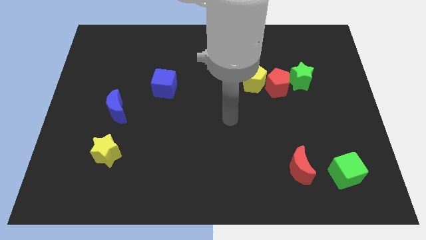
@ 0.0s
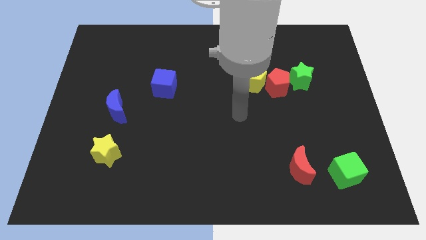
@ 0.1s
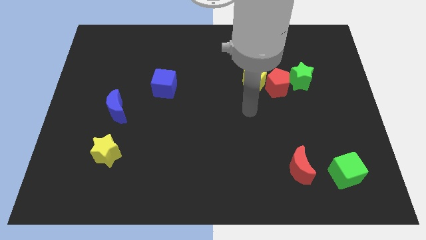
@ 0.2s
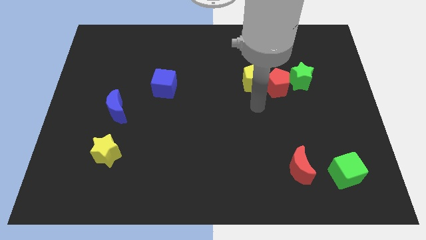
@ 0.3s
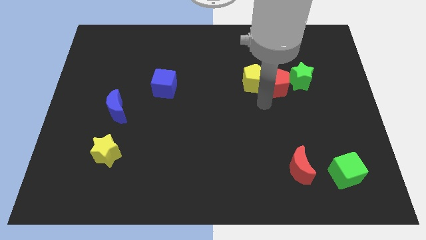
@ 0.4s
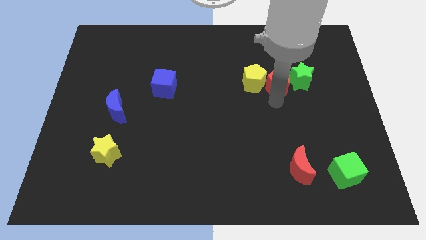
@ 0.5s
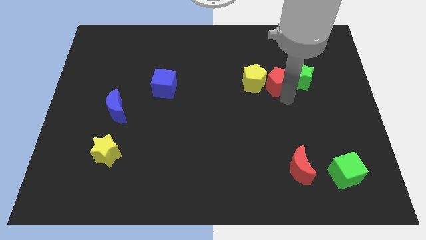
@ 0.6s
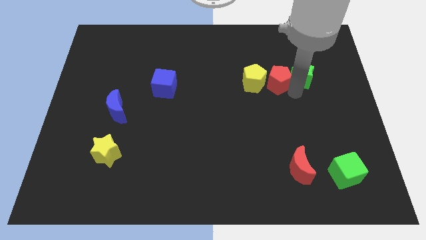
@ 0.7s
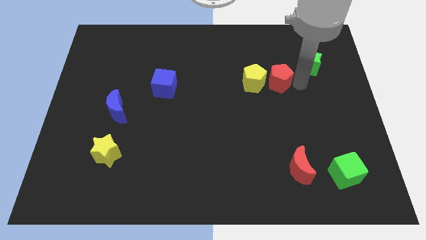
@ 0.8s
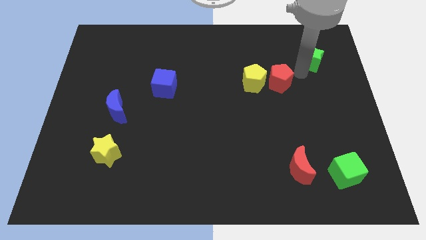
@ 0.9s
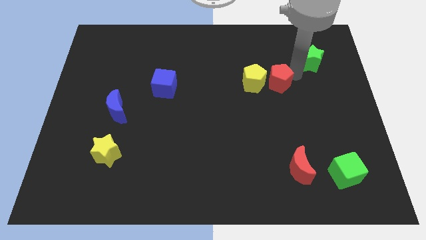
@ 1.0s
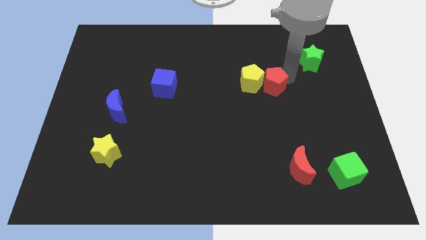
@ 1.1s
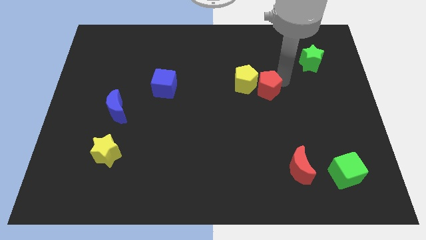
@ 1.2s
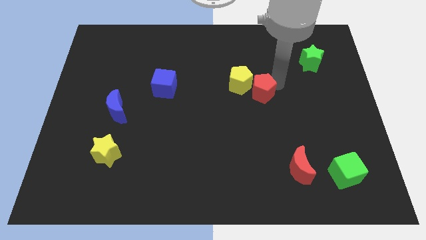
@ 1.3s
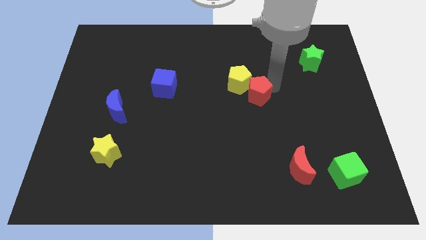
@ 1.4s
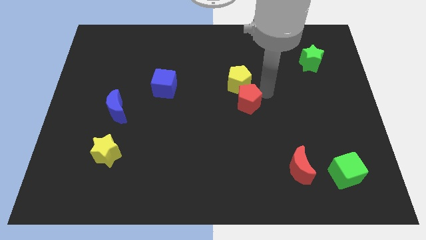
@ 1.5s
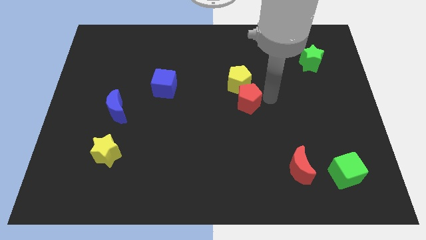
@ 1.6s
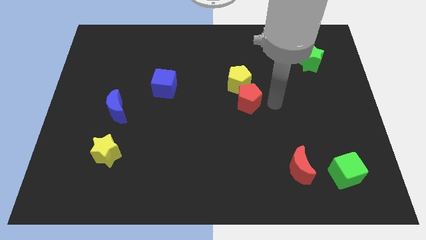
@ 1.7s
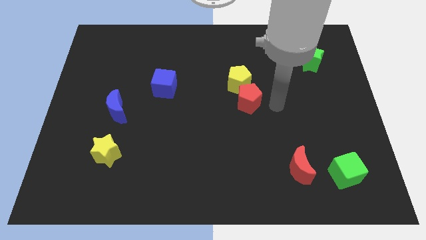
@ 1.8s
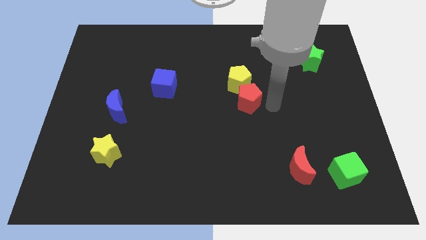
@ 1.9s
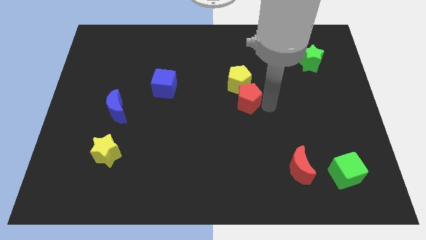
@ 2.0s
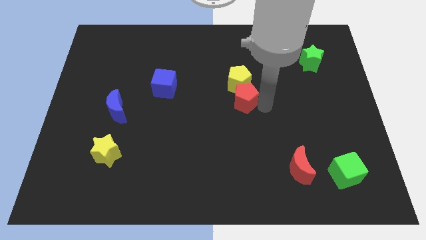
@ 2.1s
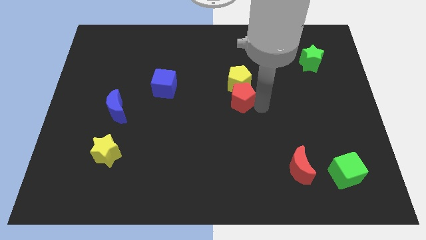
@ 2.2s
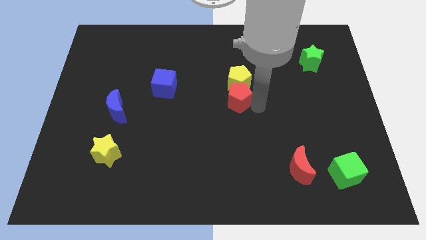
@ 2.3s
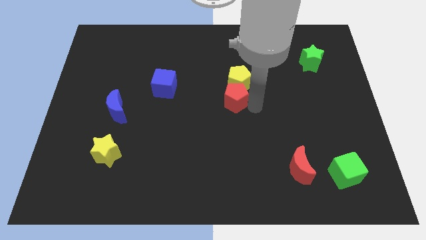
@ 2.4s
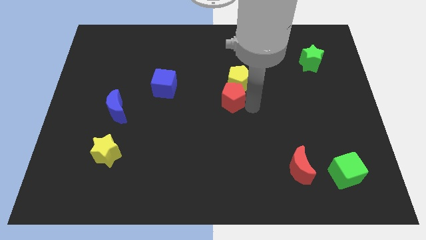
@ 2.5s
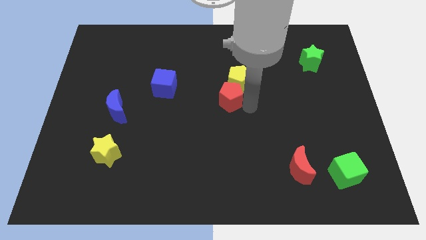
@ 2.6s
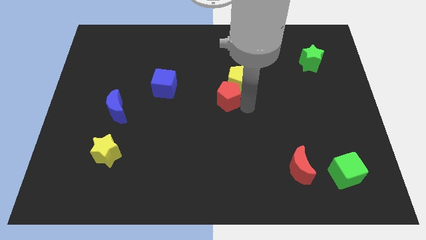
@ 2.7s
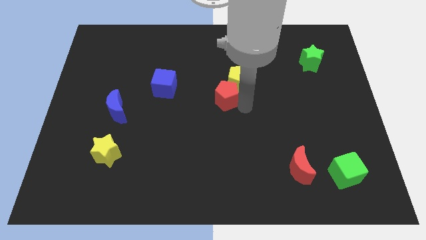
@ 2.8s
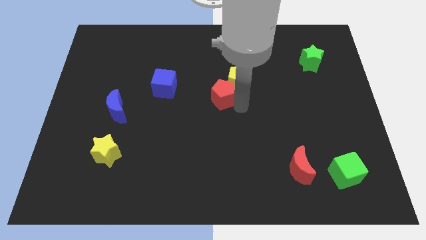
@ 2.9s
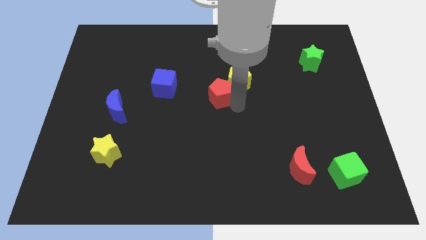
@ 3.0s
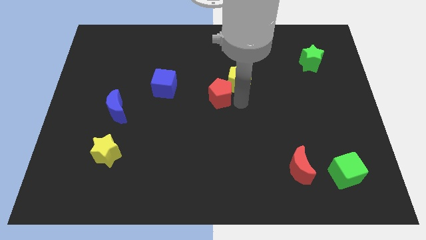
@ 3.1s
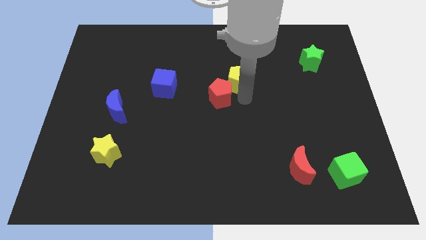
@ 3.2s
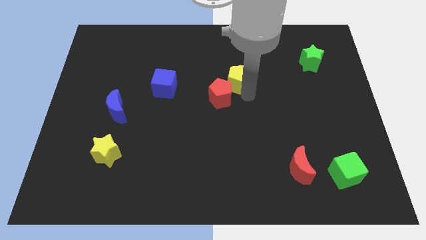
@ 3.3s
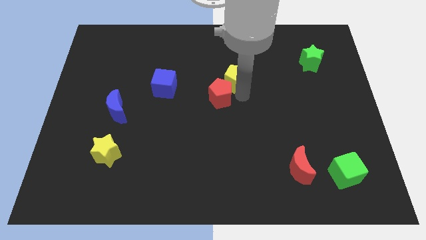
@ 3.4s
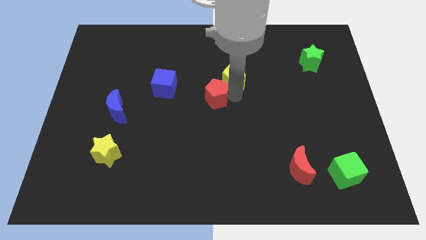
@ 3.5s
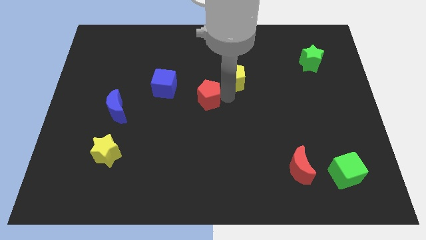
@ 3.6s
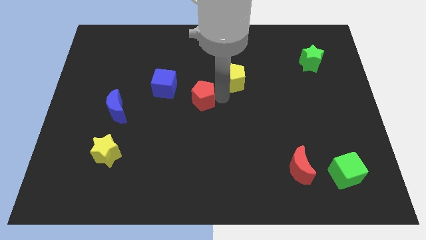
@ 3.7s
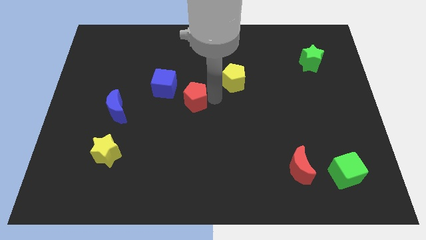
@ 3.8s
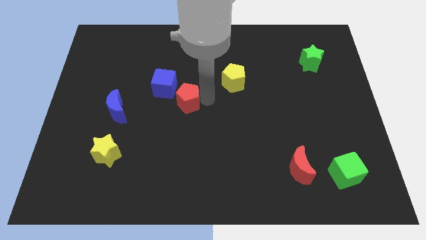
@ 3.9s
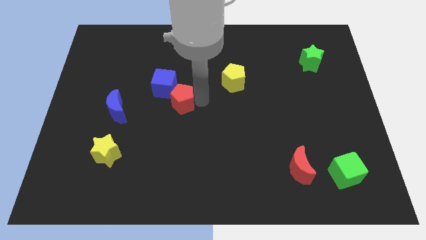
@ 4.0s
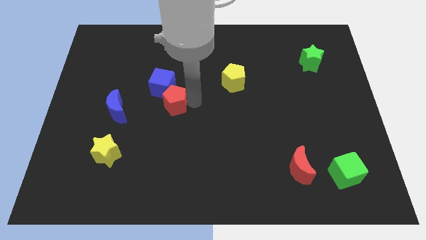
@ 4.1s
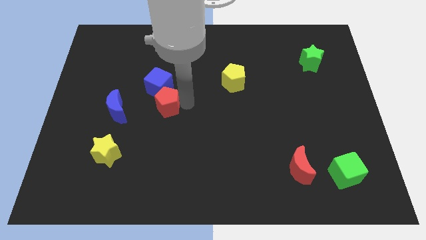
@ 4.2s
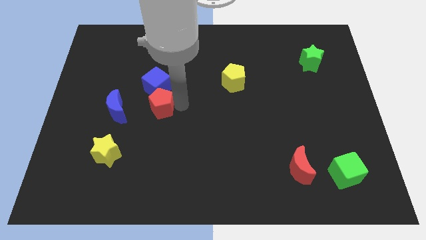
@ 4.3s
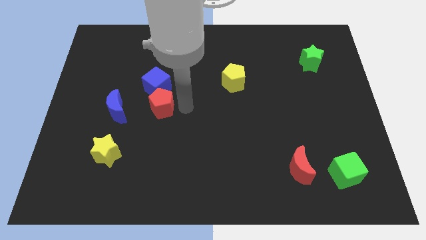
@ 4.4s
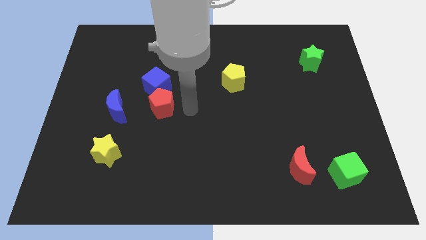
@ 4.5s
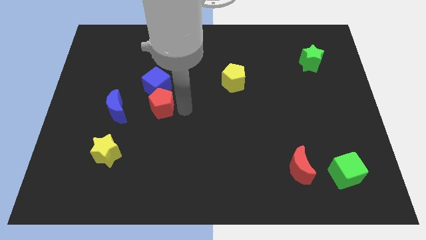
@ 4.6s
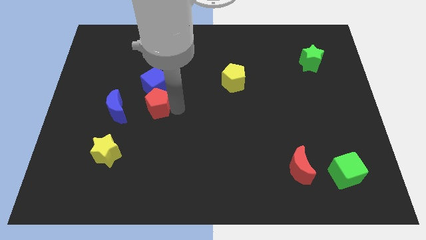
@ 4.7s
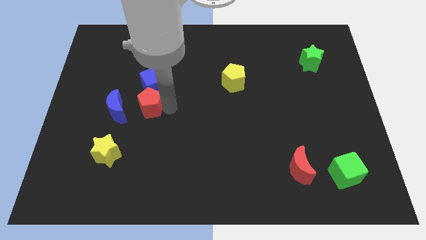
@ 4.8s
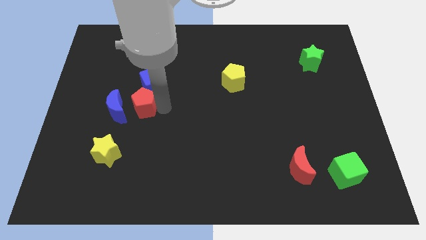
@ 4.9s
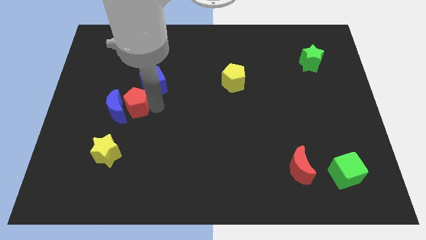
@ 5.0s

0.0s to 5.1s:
slide the red pentagon to the blue moon

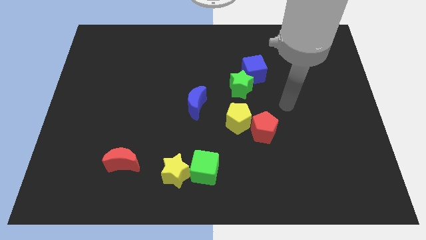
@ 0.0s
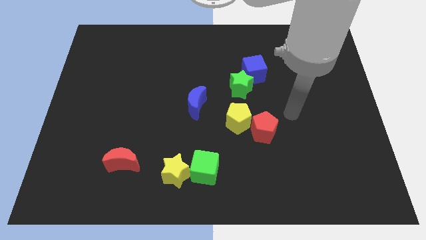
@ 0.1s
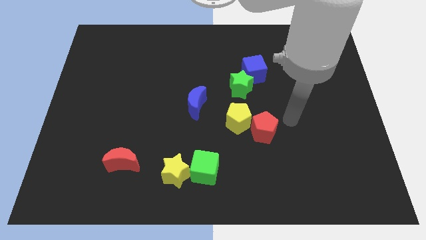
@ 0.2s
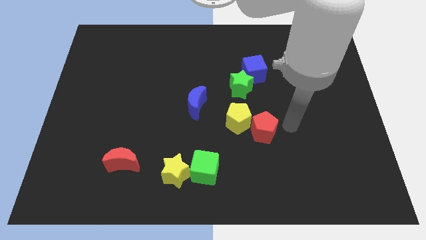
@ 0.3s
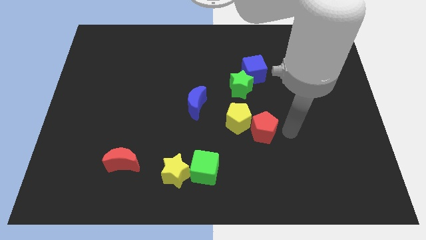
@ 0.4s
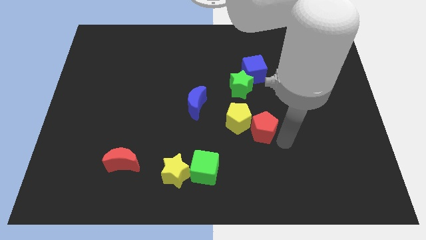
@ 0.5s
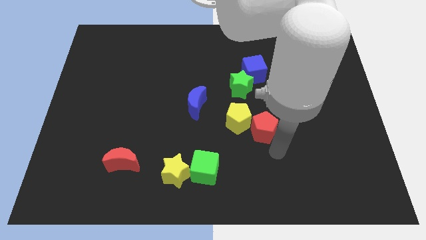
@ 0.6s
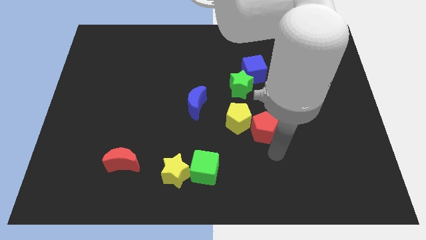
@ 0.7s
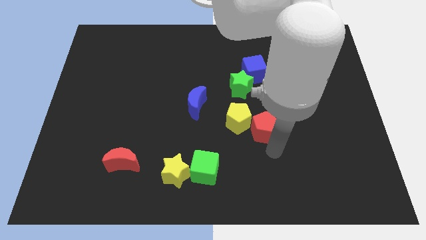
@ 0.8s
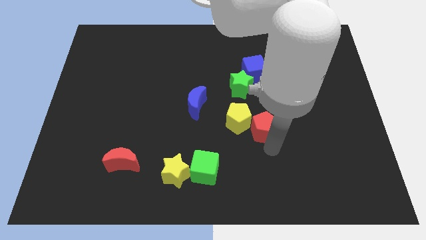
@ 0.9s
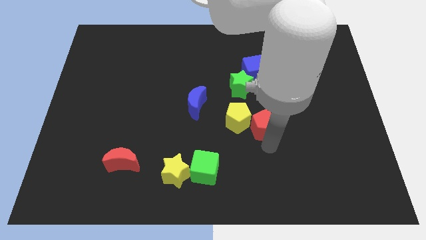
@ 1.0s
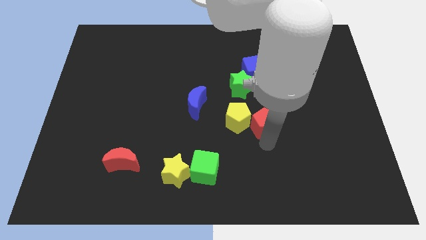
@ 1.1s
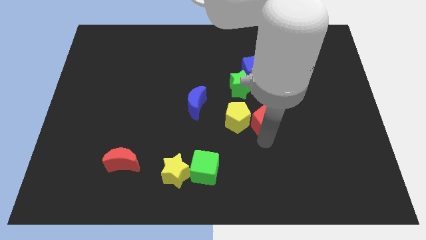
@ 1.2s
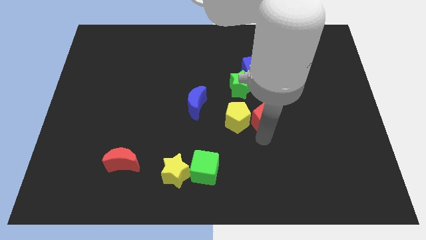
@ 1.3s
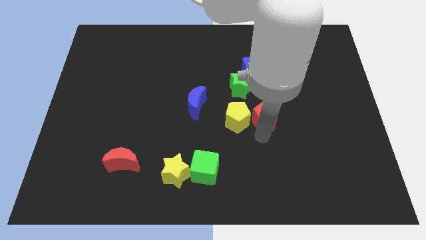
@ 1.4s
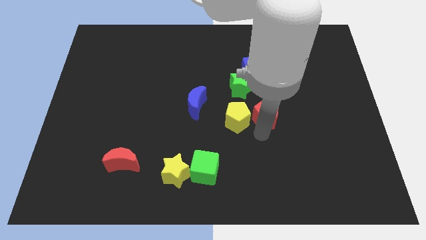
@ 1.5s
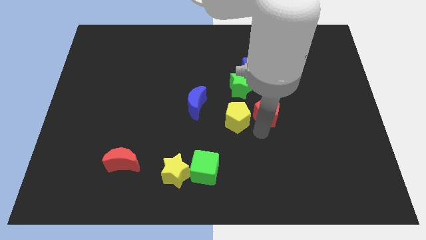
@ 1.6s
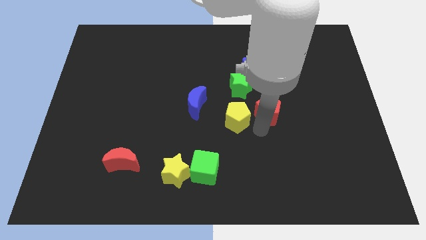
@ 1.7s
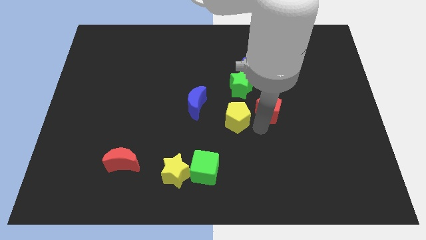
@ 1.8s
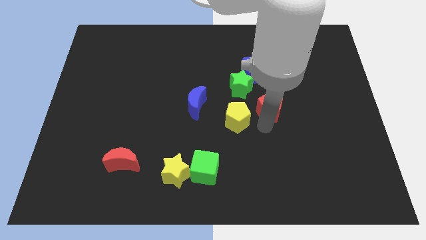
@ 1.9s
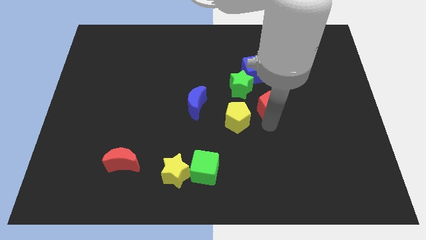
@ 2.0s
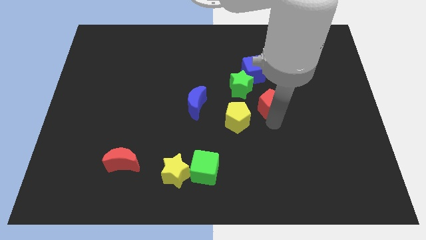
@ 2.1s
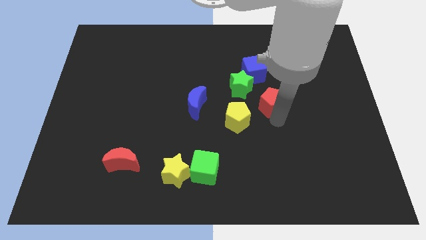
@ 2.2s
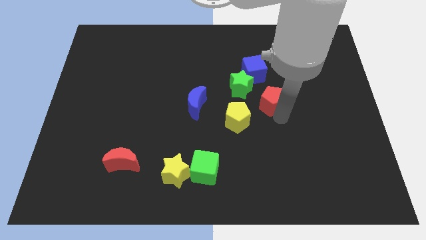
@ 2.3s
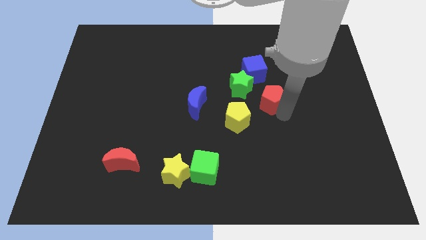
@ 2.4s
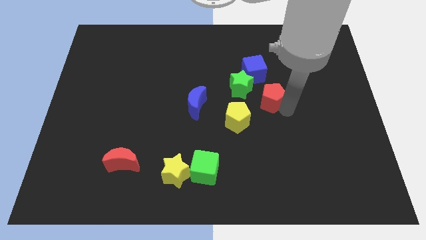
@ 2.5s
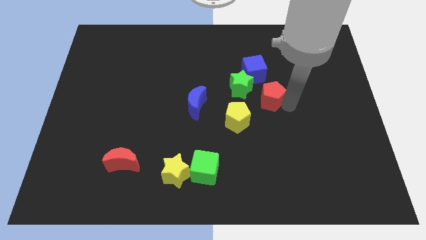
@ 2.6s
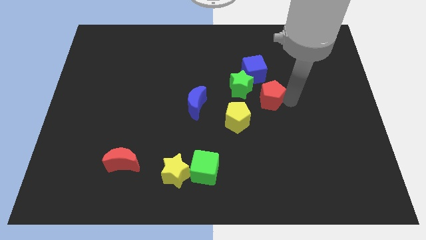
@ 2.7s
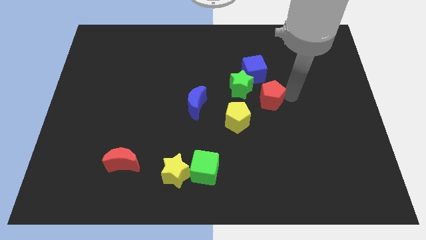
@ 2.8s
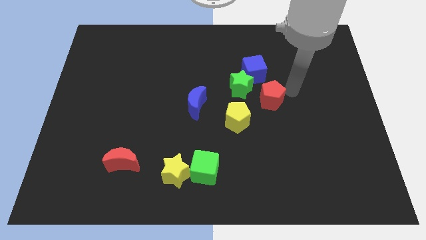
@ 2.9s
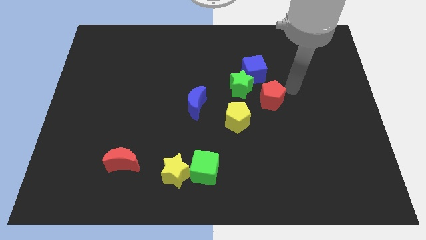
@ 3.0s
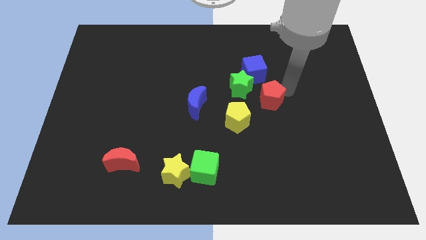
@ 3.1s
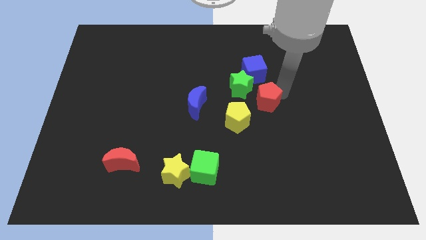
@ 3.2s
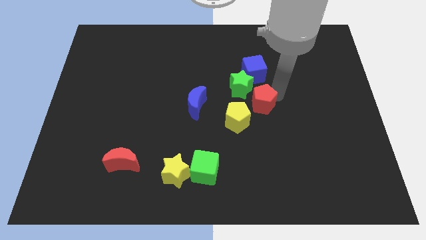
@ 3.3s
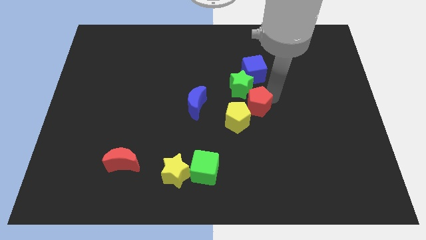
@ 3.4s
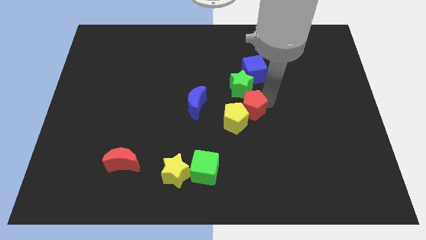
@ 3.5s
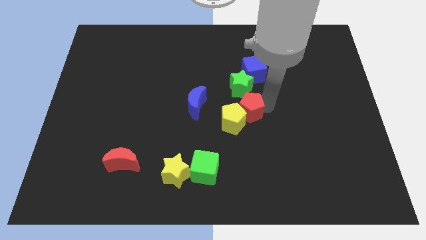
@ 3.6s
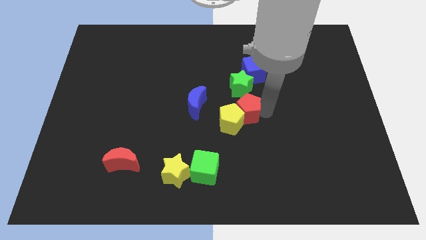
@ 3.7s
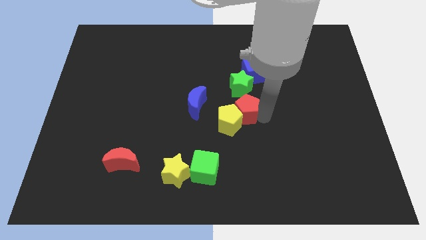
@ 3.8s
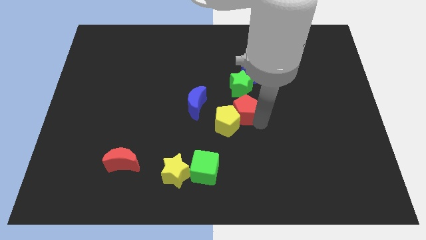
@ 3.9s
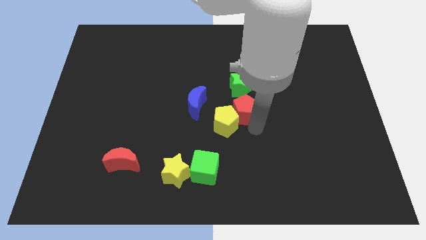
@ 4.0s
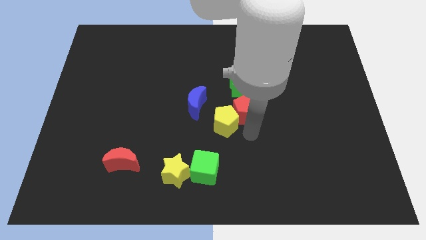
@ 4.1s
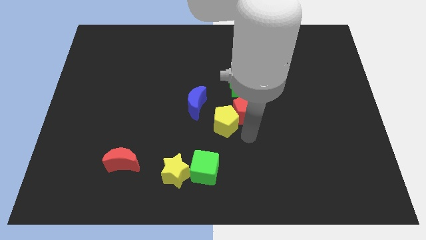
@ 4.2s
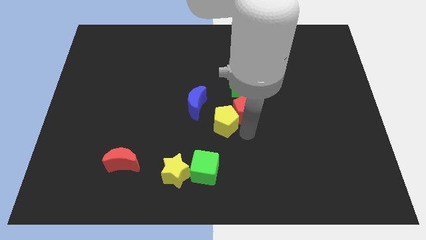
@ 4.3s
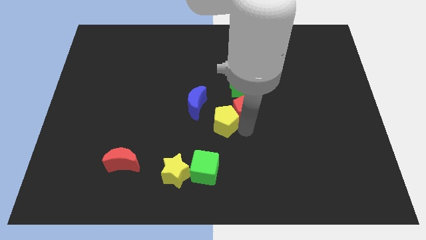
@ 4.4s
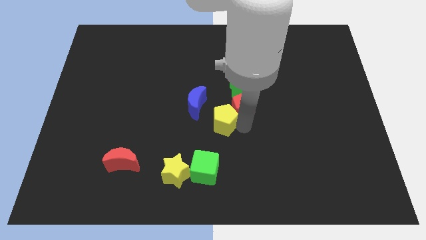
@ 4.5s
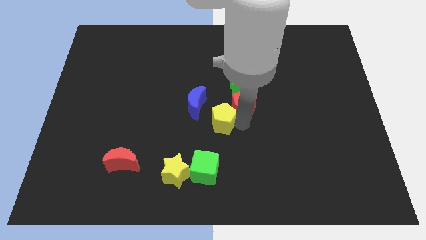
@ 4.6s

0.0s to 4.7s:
push the red pentagon next to the green star
